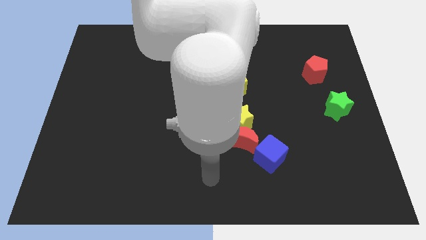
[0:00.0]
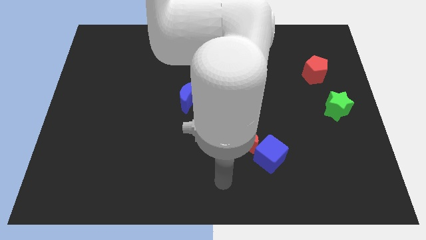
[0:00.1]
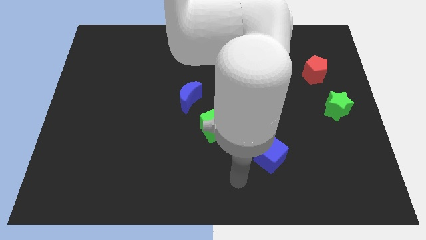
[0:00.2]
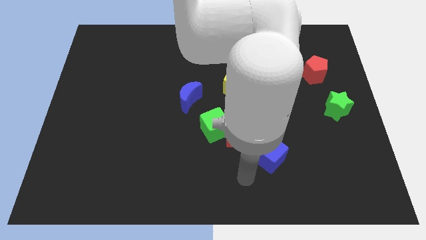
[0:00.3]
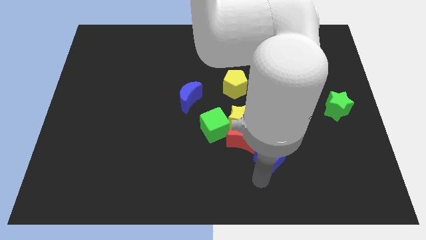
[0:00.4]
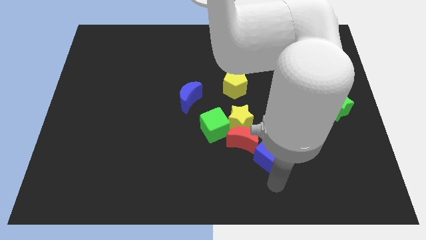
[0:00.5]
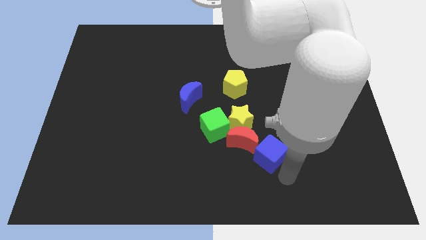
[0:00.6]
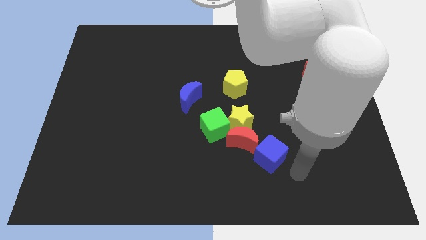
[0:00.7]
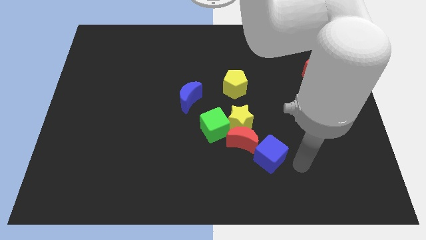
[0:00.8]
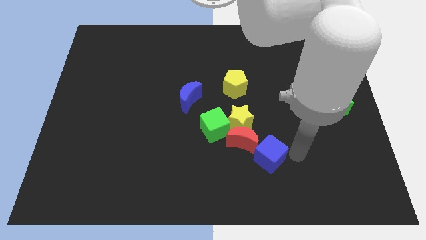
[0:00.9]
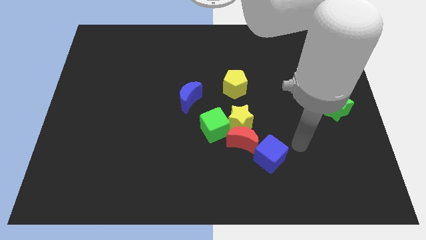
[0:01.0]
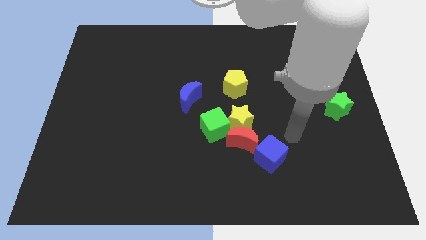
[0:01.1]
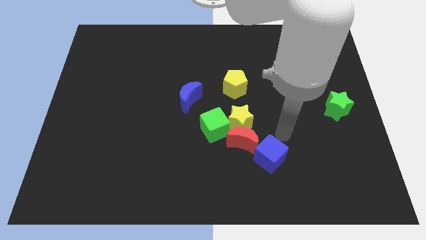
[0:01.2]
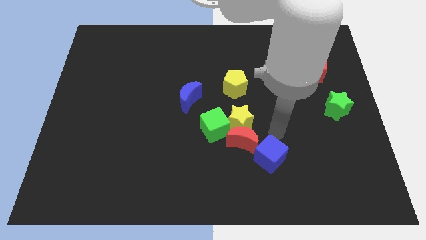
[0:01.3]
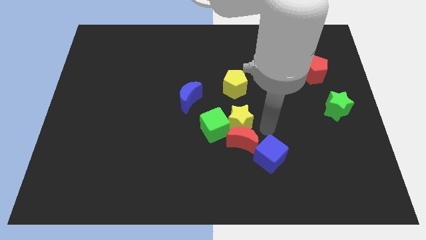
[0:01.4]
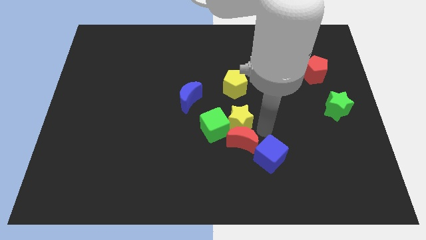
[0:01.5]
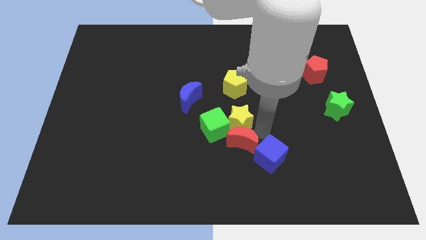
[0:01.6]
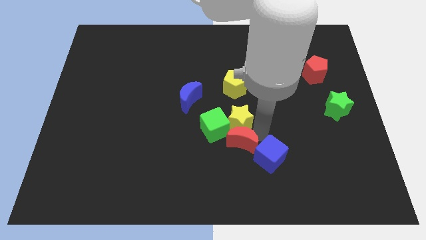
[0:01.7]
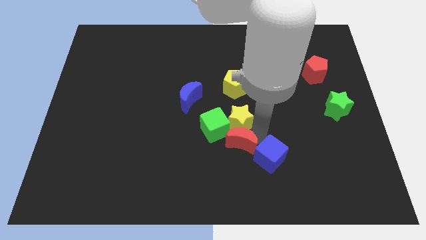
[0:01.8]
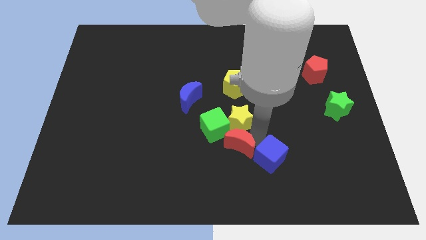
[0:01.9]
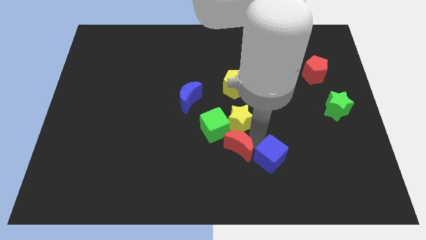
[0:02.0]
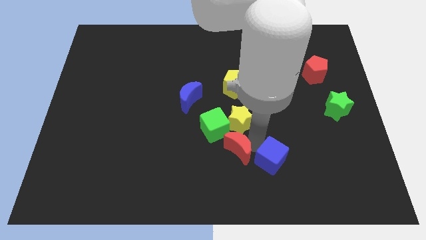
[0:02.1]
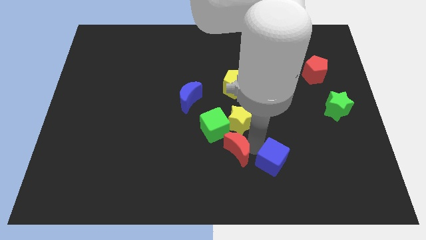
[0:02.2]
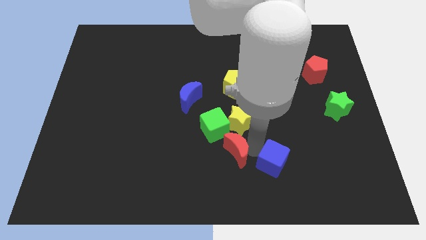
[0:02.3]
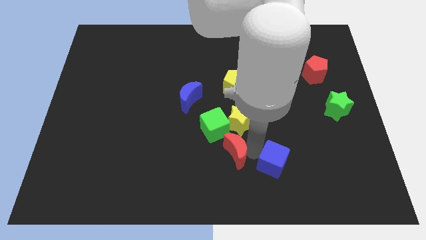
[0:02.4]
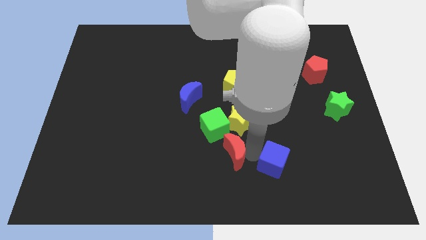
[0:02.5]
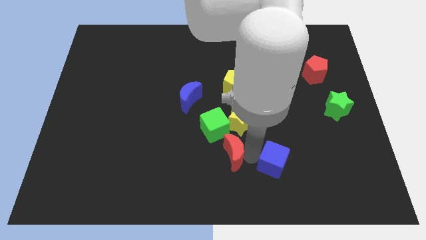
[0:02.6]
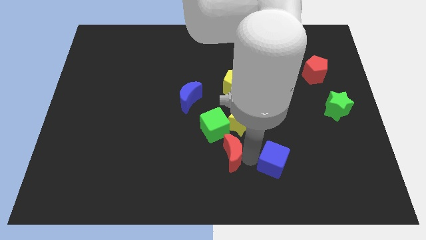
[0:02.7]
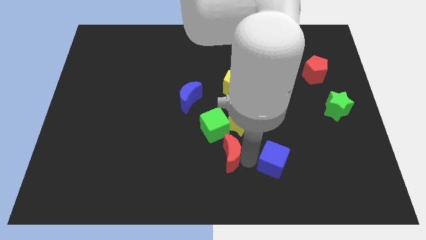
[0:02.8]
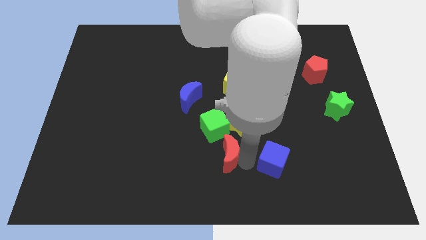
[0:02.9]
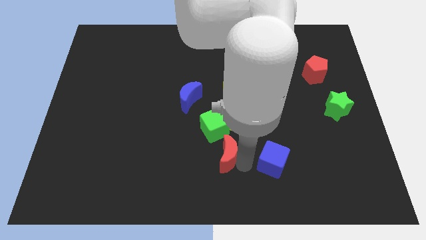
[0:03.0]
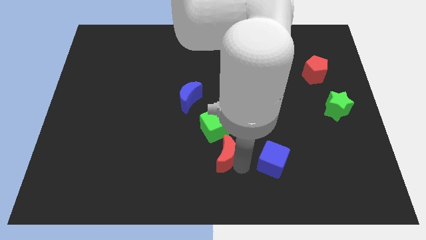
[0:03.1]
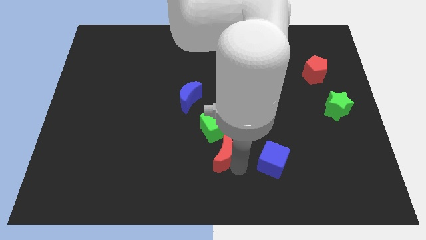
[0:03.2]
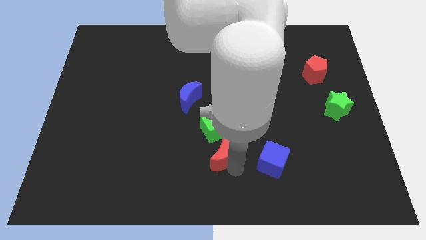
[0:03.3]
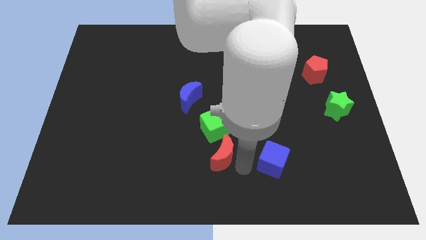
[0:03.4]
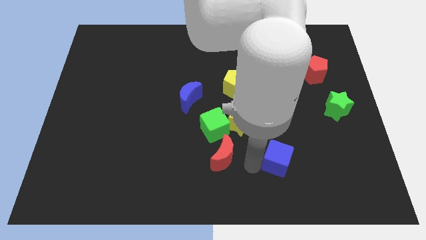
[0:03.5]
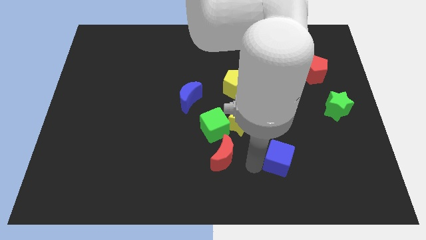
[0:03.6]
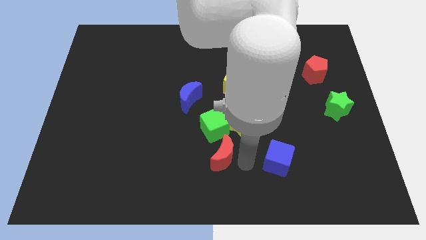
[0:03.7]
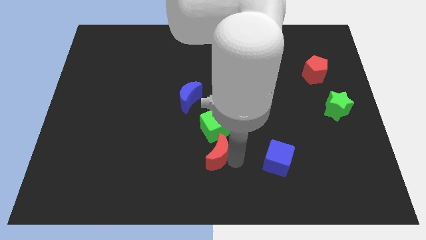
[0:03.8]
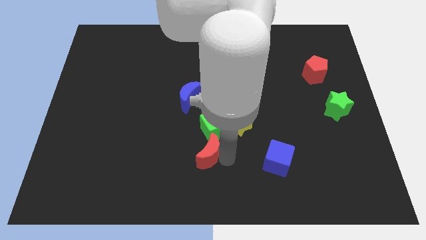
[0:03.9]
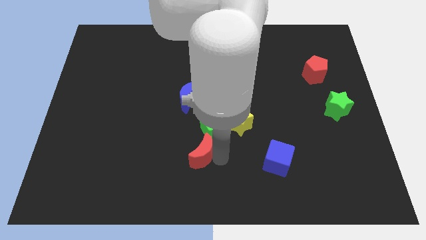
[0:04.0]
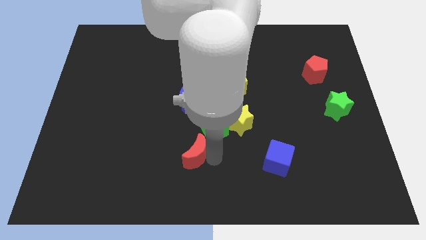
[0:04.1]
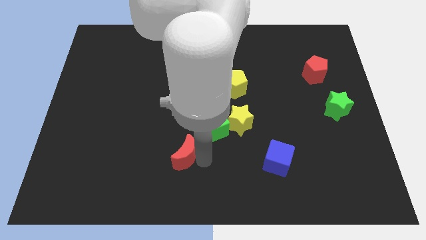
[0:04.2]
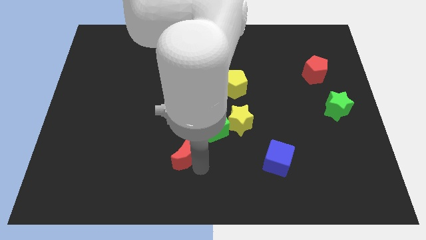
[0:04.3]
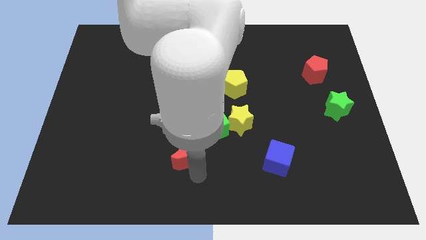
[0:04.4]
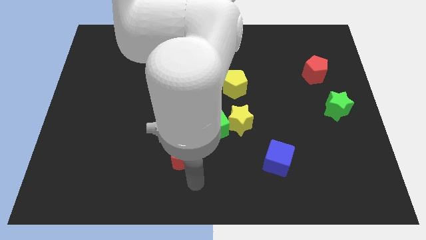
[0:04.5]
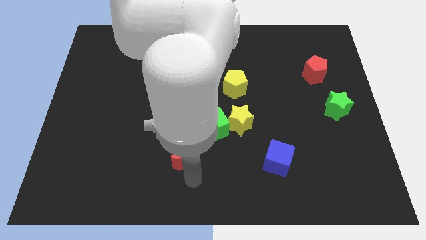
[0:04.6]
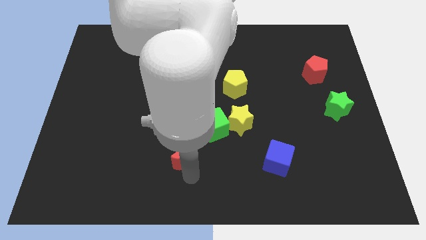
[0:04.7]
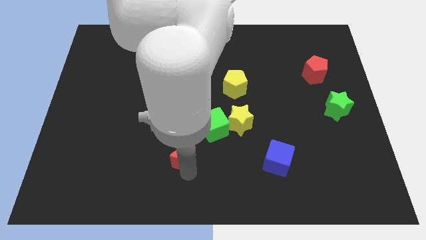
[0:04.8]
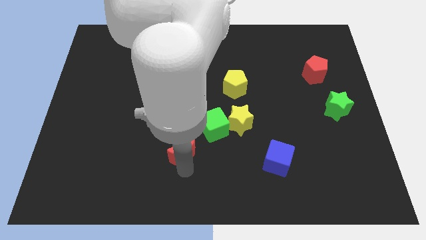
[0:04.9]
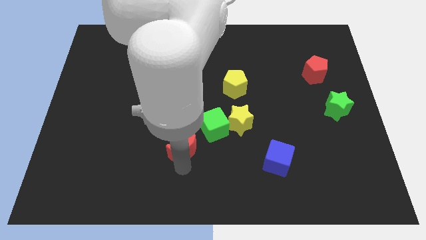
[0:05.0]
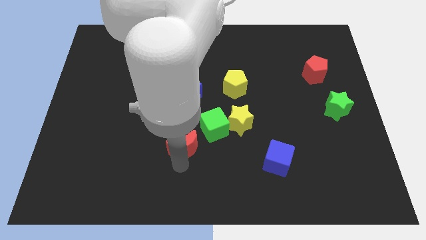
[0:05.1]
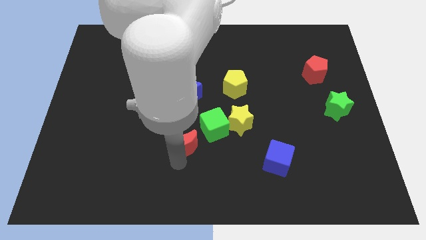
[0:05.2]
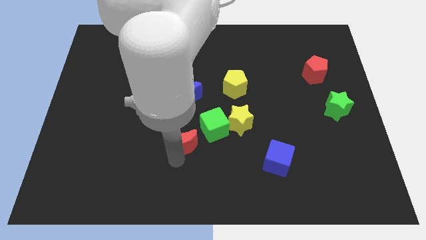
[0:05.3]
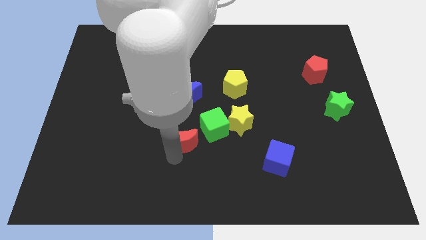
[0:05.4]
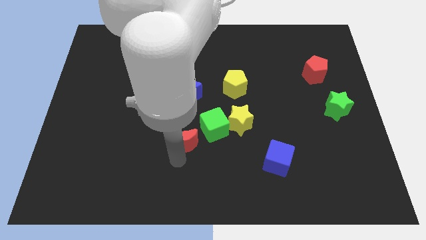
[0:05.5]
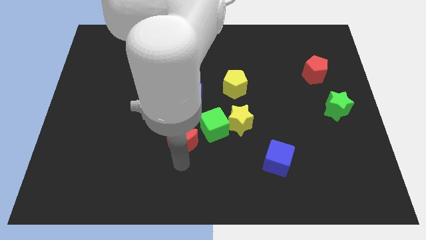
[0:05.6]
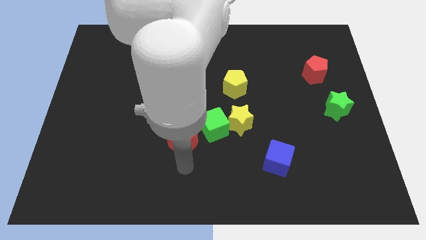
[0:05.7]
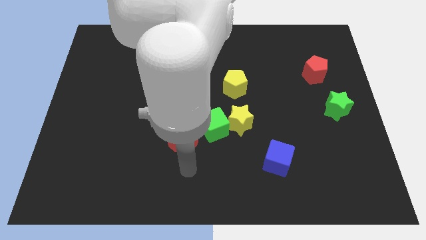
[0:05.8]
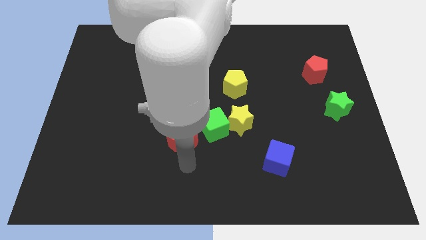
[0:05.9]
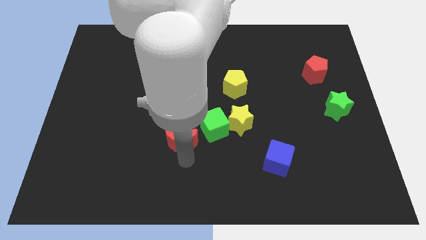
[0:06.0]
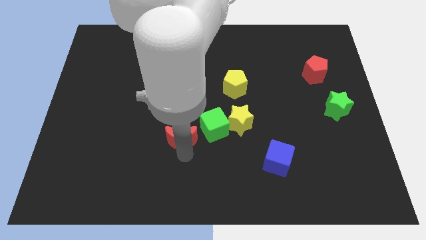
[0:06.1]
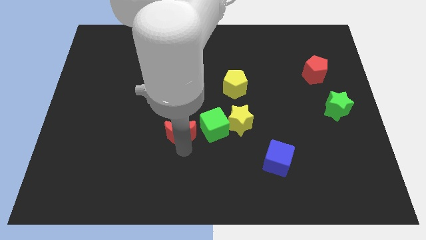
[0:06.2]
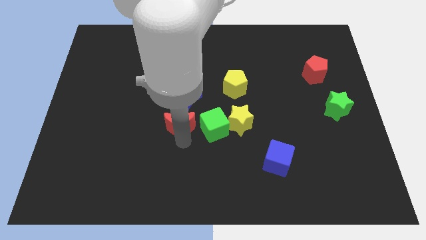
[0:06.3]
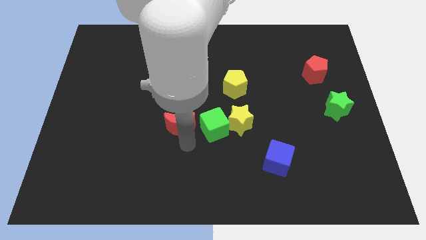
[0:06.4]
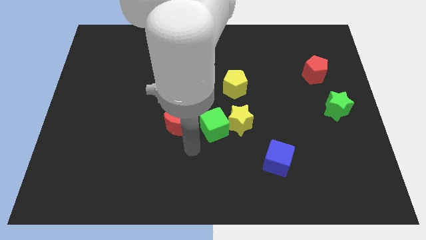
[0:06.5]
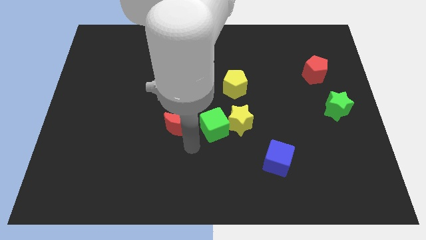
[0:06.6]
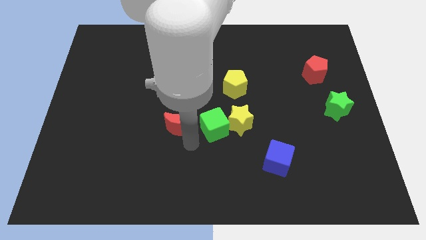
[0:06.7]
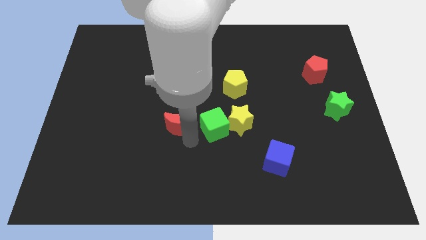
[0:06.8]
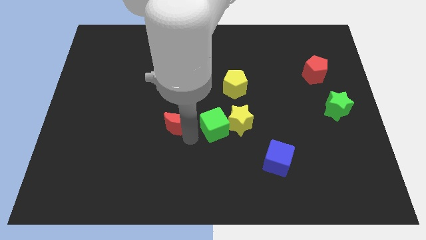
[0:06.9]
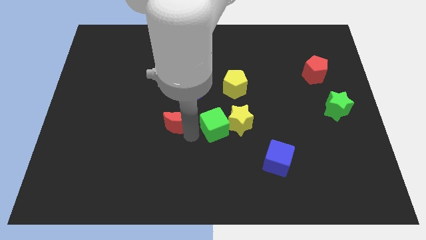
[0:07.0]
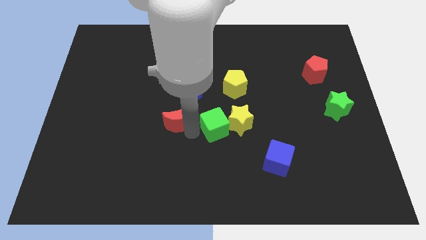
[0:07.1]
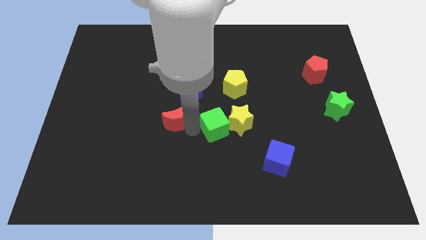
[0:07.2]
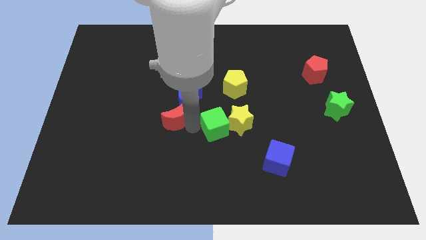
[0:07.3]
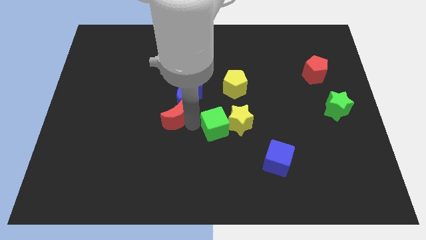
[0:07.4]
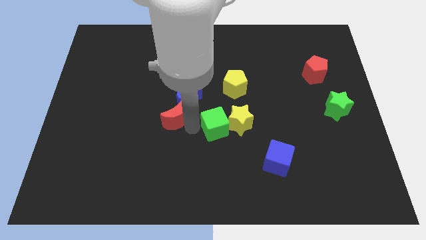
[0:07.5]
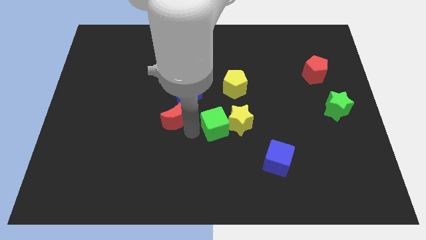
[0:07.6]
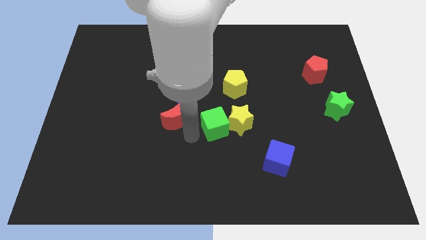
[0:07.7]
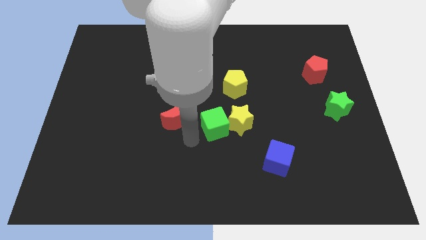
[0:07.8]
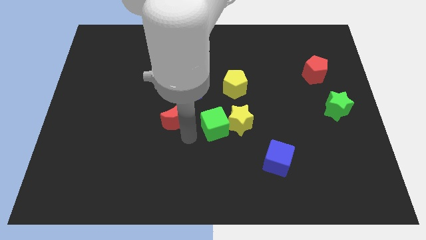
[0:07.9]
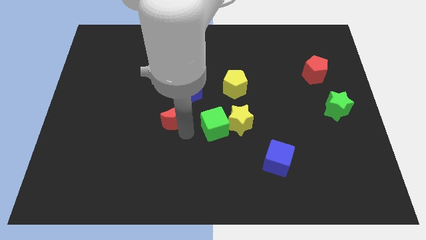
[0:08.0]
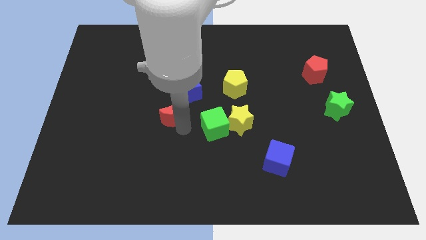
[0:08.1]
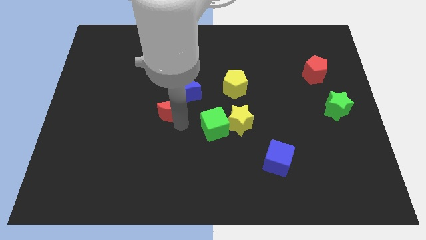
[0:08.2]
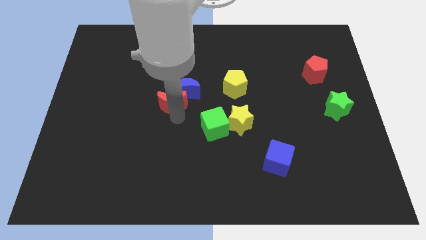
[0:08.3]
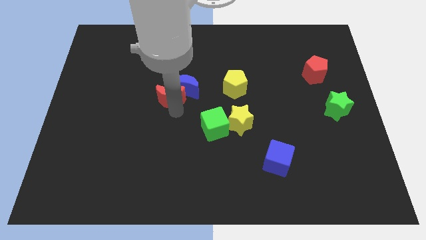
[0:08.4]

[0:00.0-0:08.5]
push the red moon up and left diagonally
